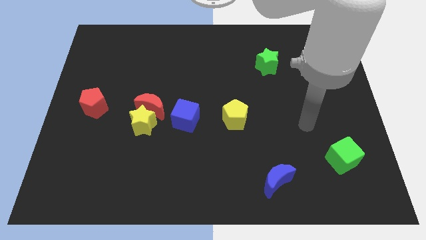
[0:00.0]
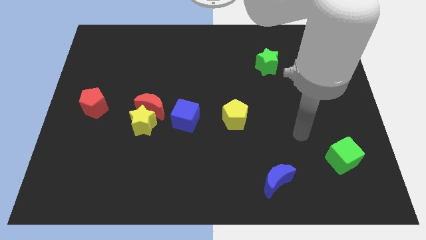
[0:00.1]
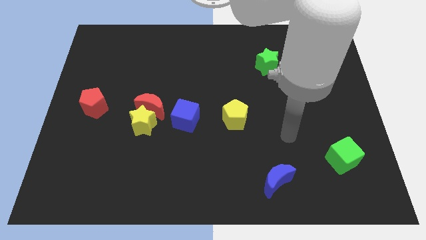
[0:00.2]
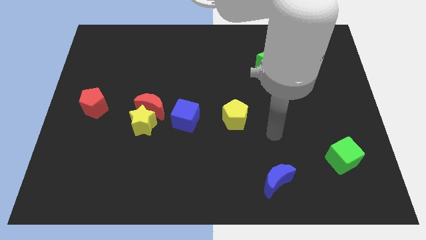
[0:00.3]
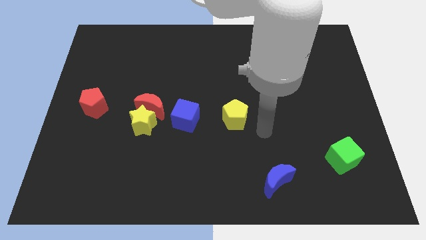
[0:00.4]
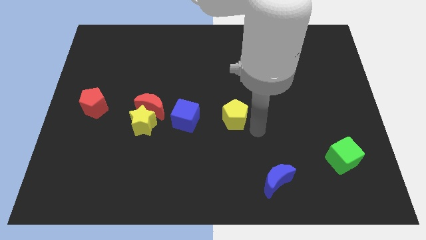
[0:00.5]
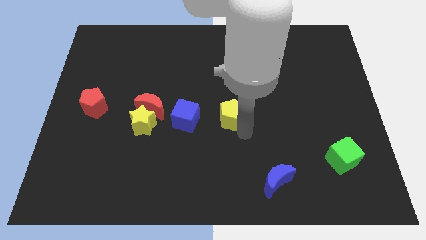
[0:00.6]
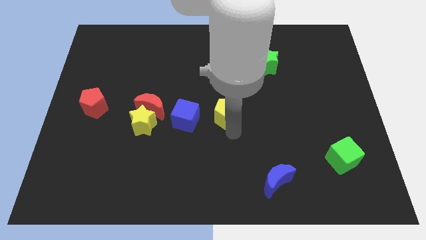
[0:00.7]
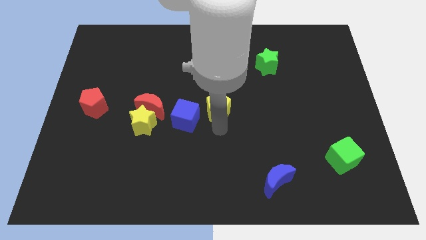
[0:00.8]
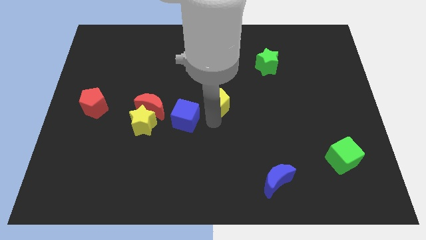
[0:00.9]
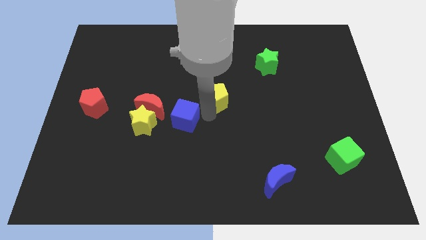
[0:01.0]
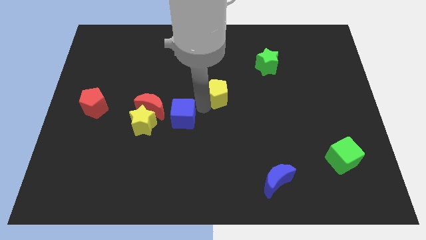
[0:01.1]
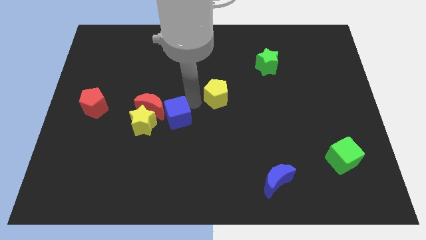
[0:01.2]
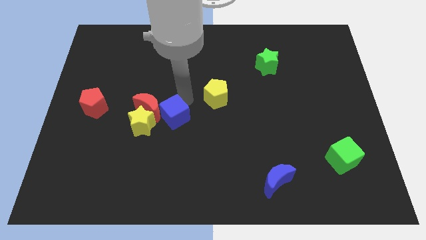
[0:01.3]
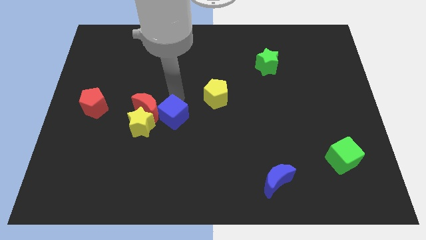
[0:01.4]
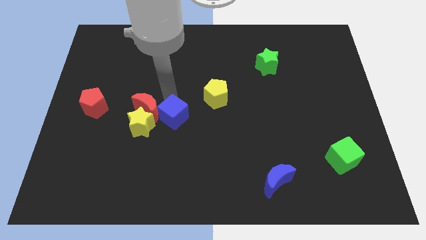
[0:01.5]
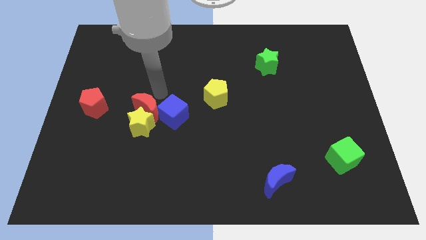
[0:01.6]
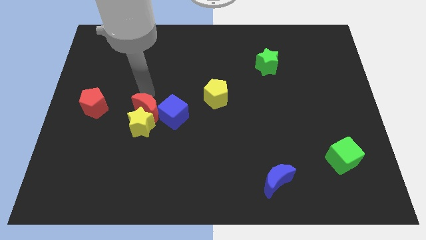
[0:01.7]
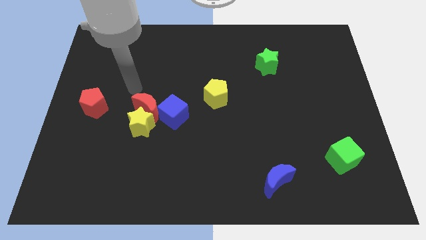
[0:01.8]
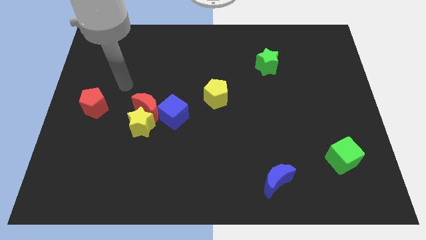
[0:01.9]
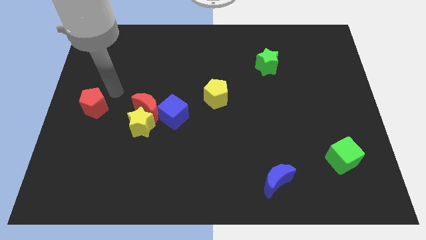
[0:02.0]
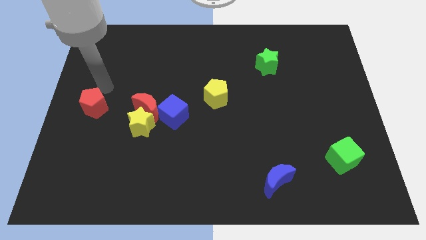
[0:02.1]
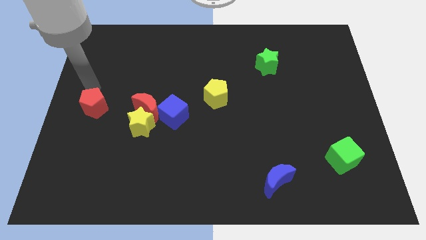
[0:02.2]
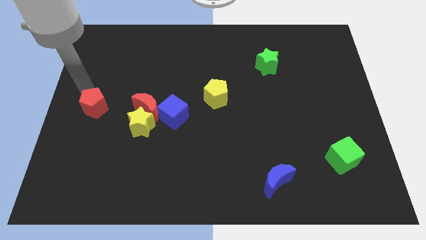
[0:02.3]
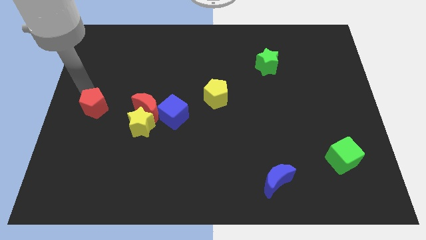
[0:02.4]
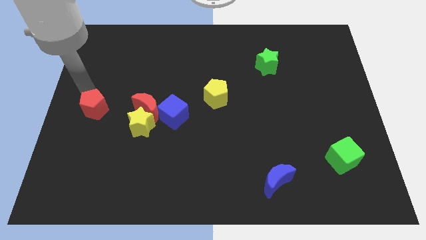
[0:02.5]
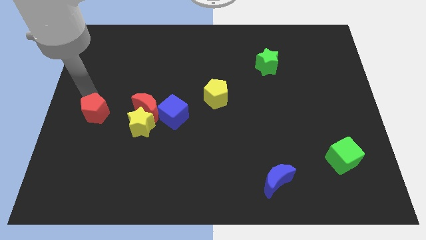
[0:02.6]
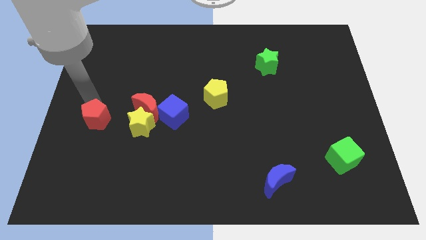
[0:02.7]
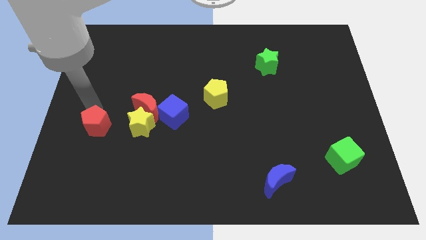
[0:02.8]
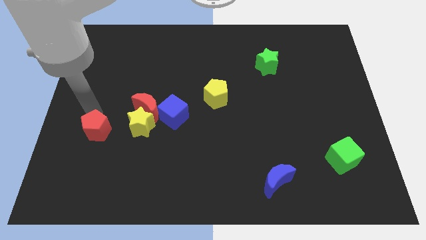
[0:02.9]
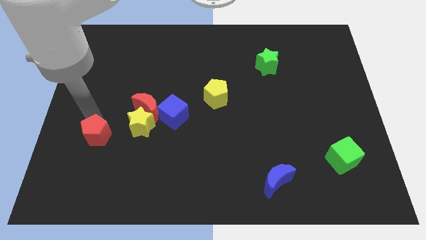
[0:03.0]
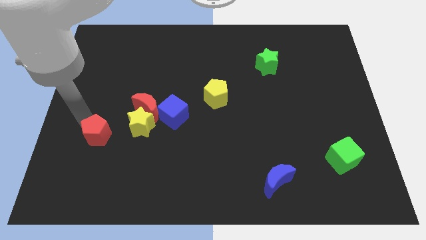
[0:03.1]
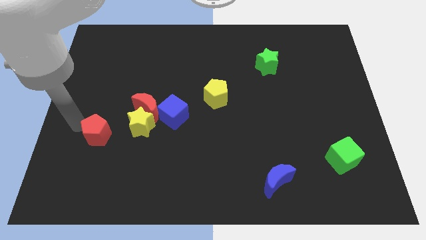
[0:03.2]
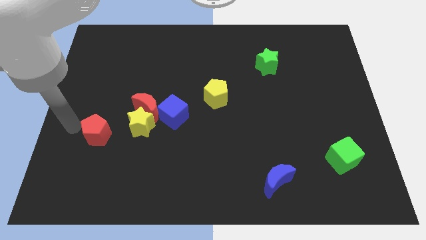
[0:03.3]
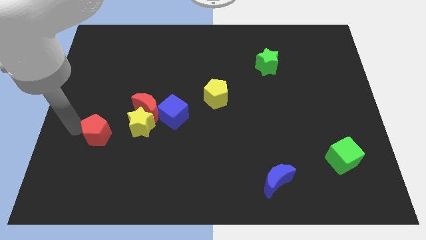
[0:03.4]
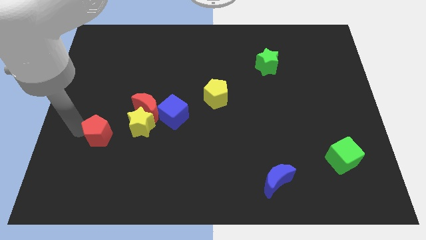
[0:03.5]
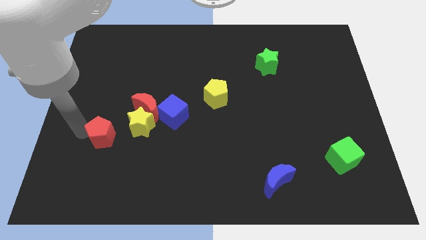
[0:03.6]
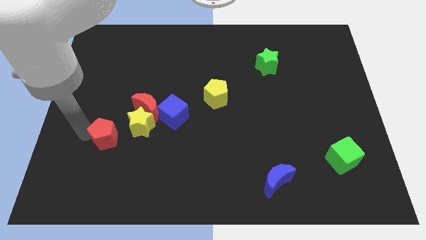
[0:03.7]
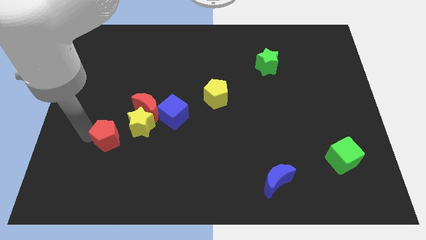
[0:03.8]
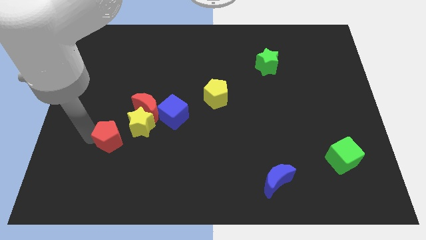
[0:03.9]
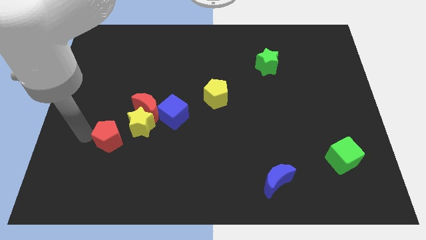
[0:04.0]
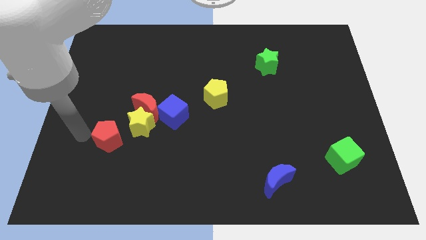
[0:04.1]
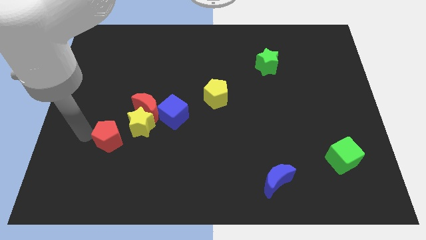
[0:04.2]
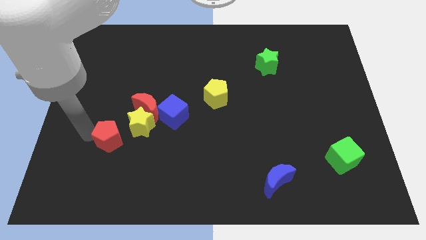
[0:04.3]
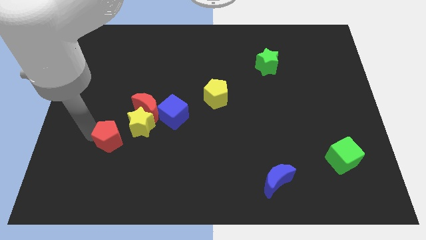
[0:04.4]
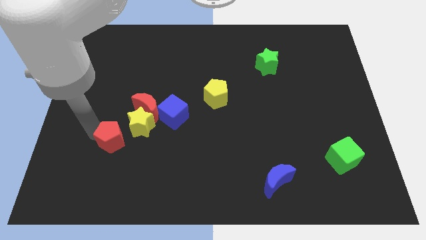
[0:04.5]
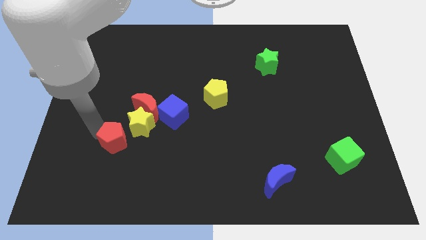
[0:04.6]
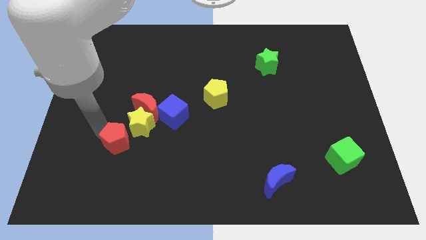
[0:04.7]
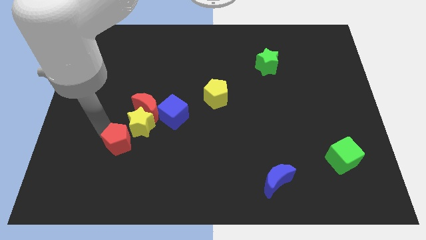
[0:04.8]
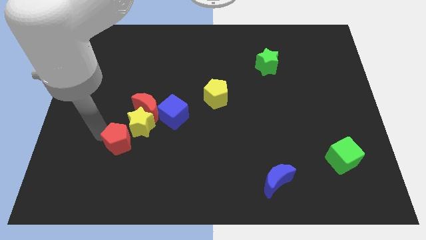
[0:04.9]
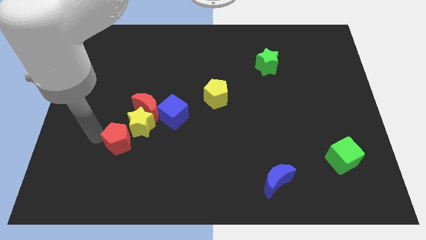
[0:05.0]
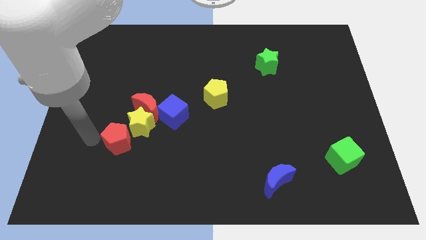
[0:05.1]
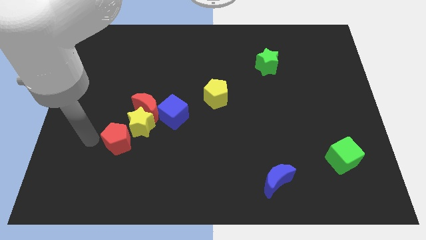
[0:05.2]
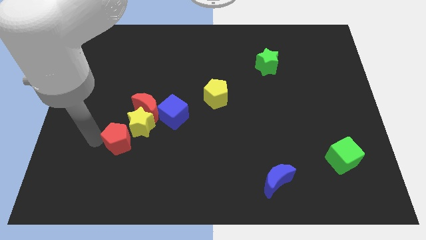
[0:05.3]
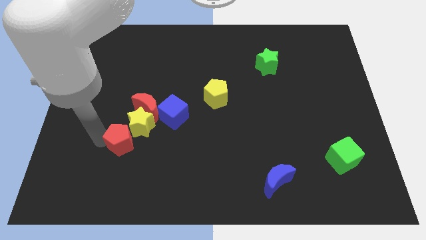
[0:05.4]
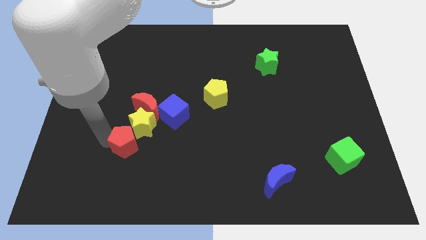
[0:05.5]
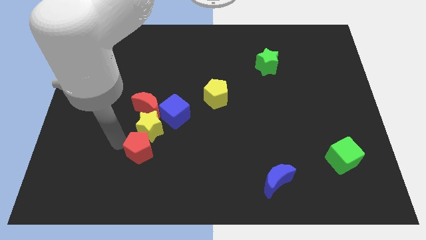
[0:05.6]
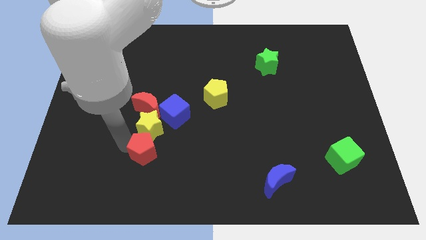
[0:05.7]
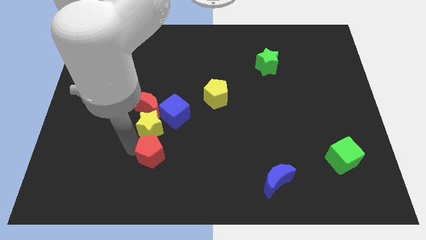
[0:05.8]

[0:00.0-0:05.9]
slide the red pentagon to the bottom side of the blue cube

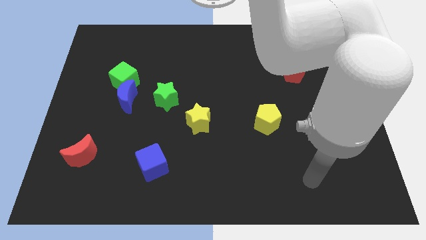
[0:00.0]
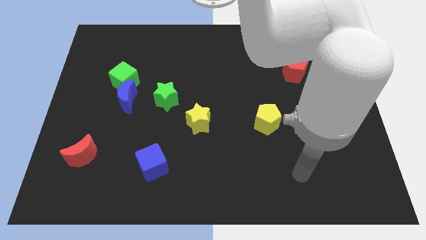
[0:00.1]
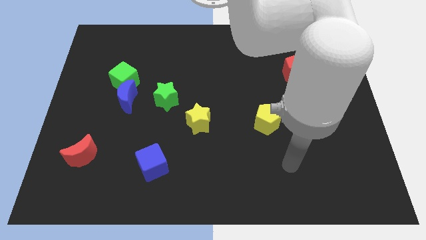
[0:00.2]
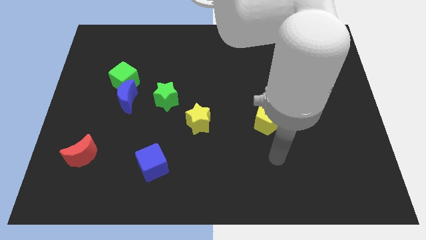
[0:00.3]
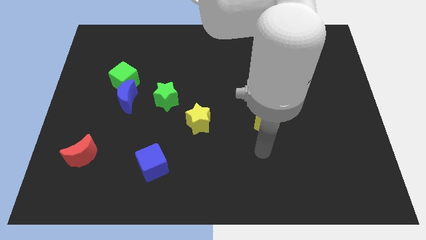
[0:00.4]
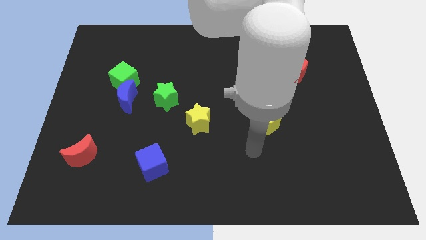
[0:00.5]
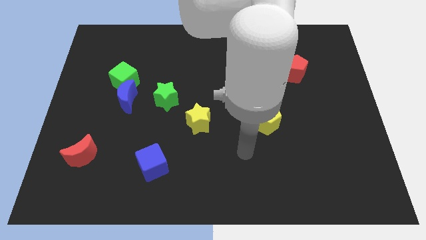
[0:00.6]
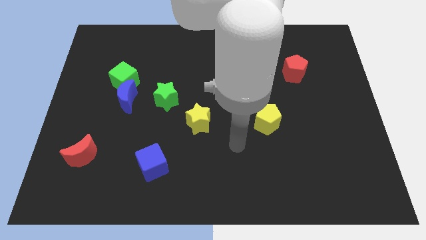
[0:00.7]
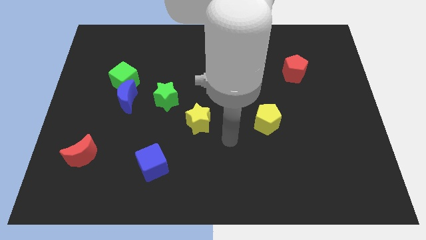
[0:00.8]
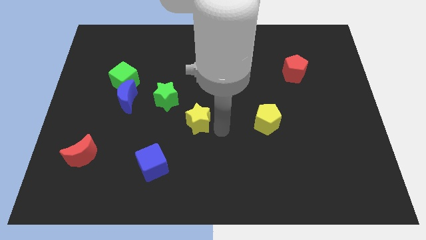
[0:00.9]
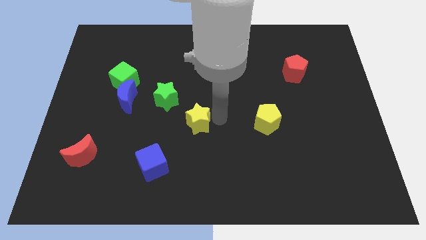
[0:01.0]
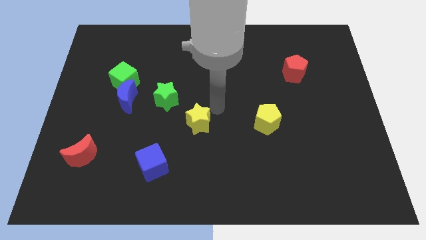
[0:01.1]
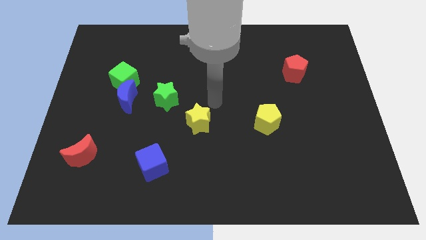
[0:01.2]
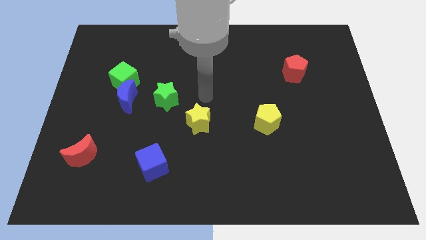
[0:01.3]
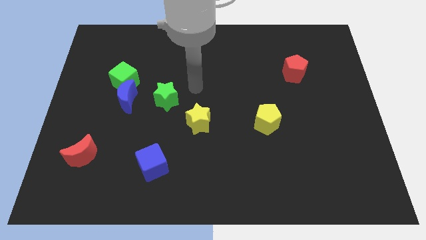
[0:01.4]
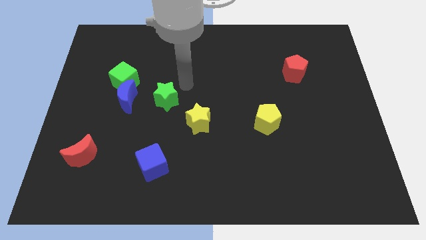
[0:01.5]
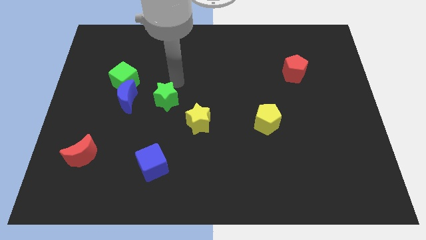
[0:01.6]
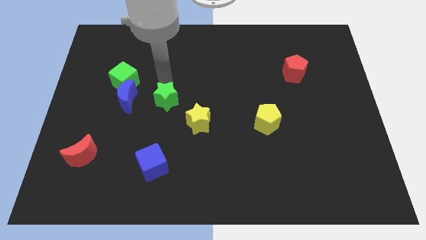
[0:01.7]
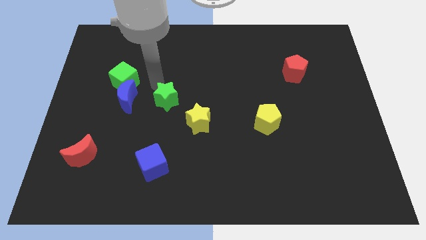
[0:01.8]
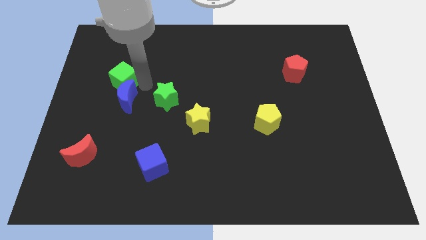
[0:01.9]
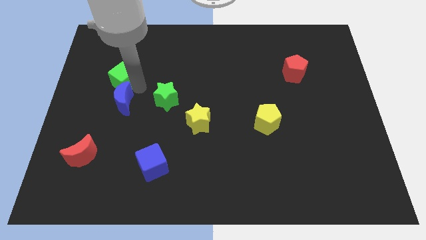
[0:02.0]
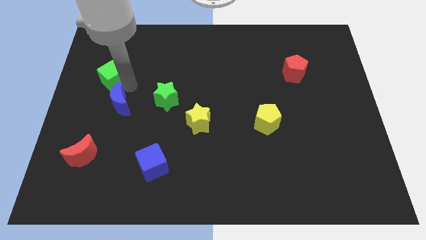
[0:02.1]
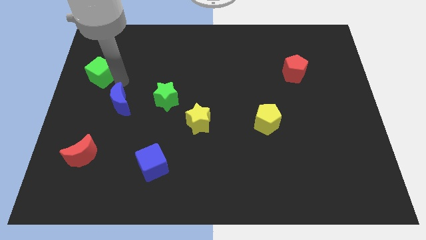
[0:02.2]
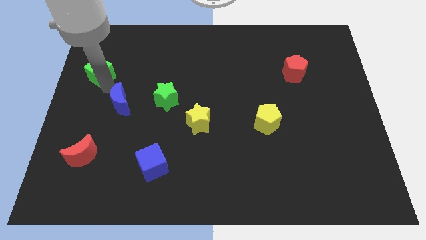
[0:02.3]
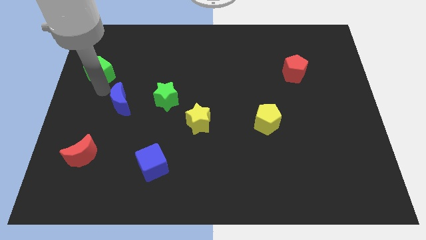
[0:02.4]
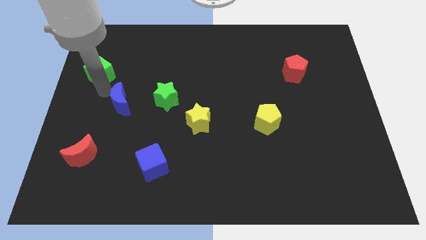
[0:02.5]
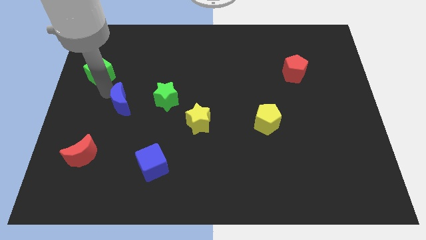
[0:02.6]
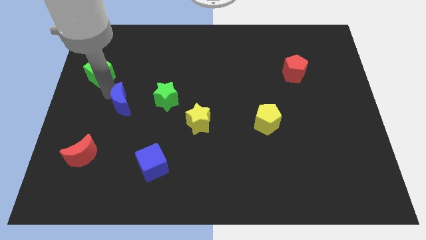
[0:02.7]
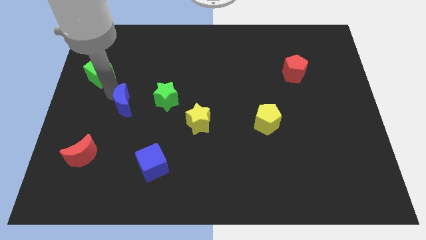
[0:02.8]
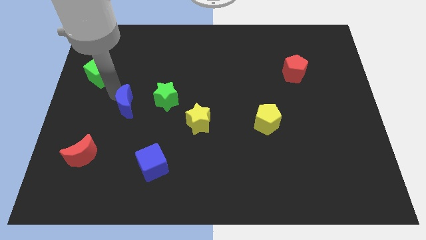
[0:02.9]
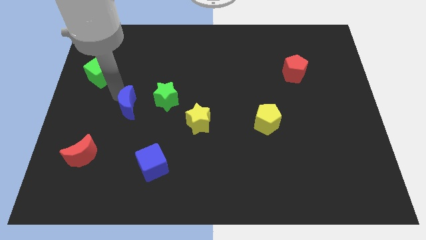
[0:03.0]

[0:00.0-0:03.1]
slide the blue moon to the bottom left side of the green star
